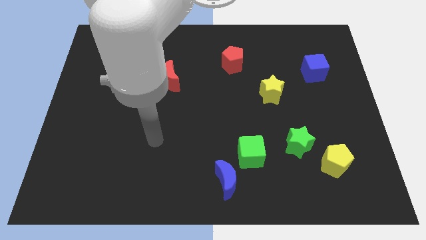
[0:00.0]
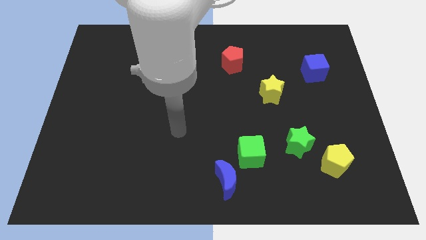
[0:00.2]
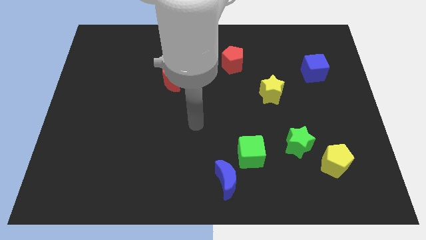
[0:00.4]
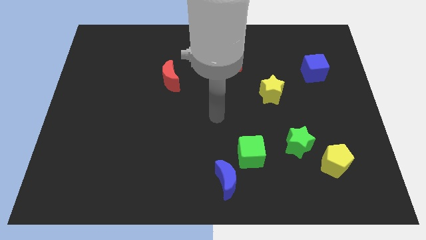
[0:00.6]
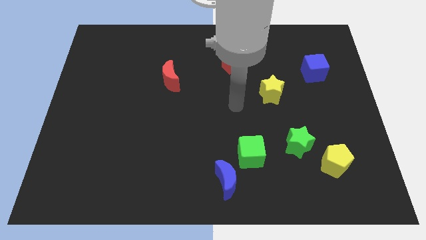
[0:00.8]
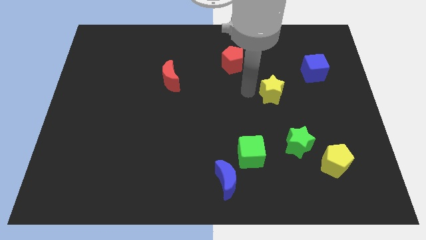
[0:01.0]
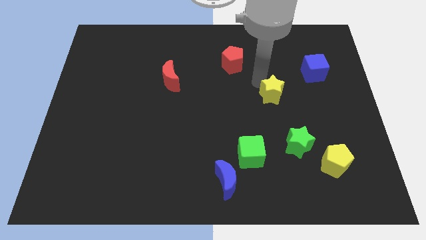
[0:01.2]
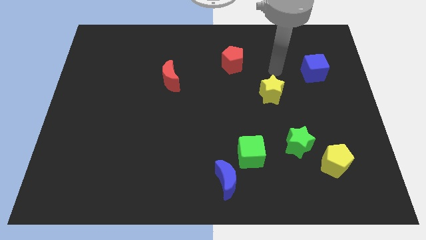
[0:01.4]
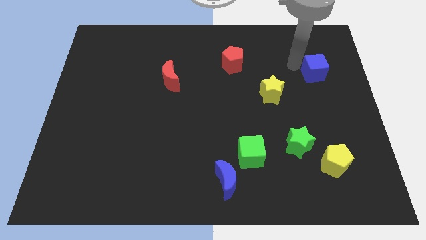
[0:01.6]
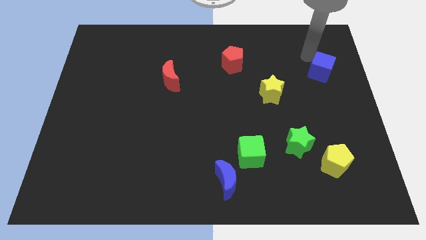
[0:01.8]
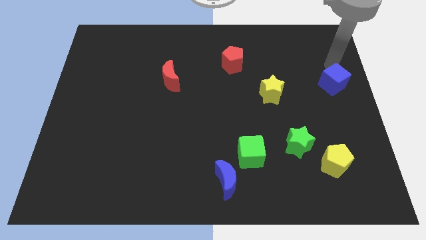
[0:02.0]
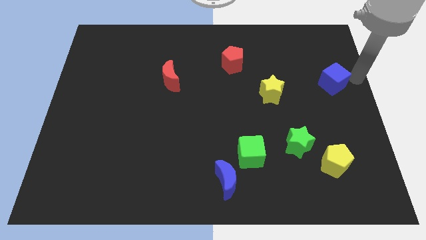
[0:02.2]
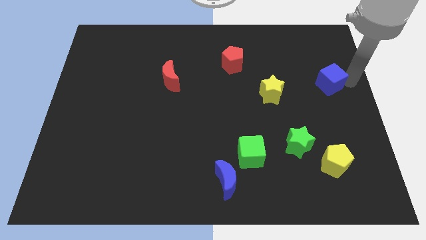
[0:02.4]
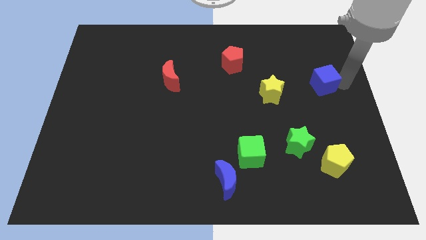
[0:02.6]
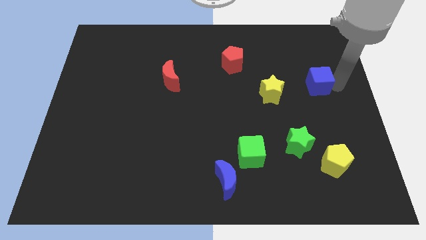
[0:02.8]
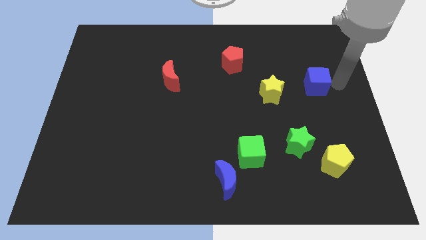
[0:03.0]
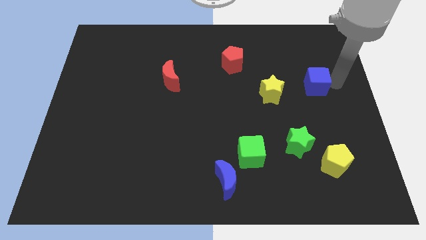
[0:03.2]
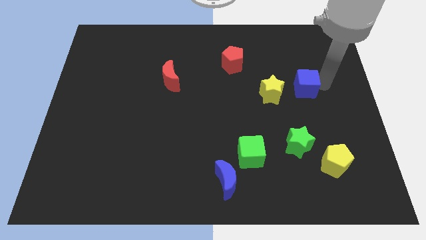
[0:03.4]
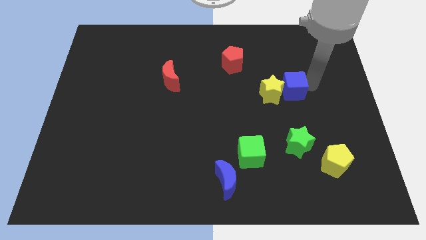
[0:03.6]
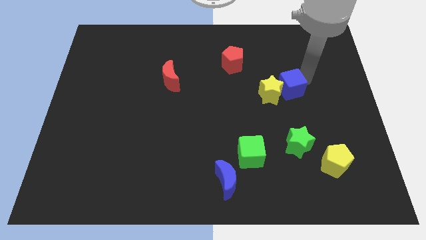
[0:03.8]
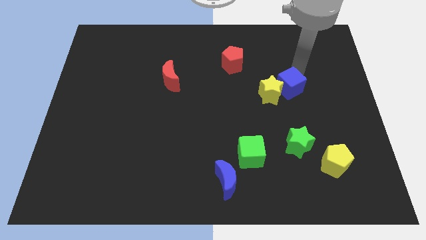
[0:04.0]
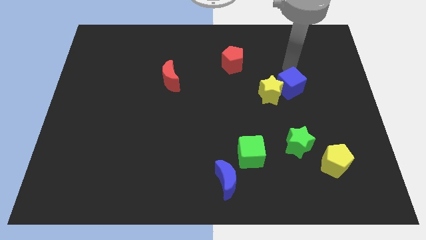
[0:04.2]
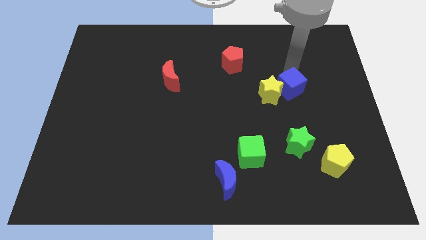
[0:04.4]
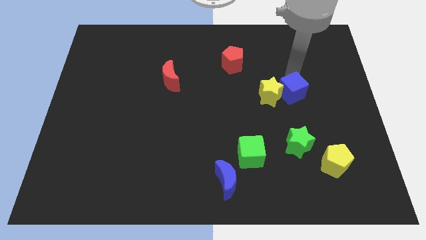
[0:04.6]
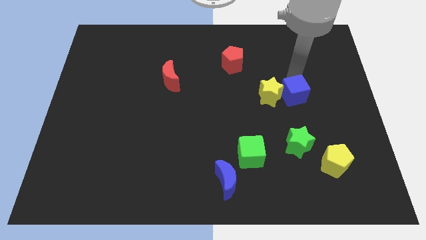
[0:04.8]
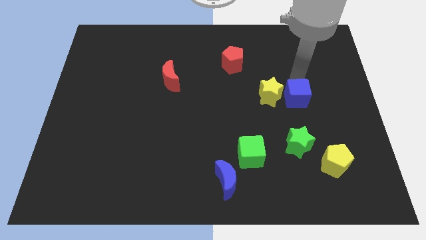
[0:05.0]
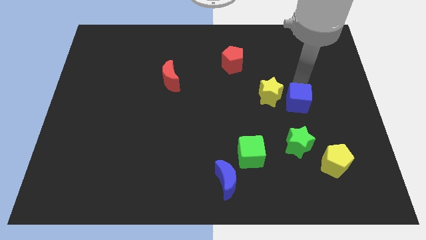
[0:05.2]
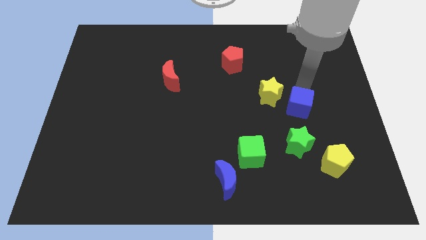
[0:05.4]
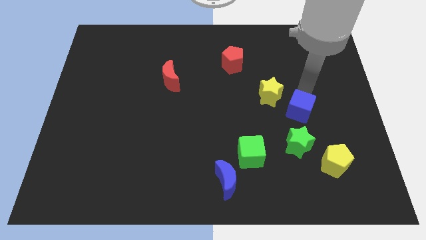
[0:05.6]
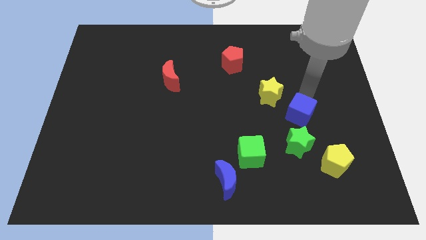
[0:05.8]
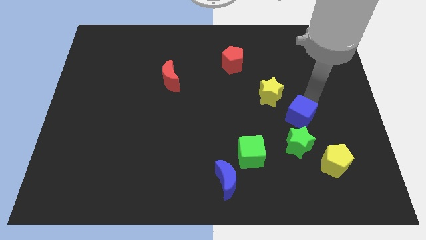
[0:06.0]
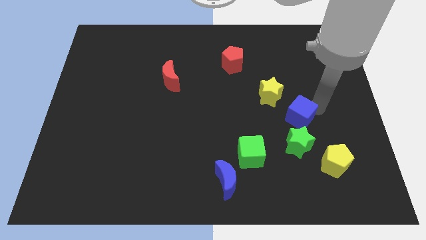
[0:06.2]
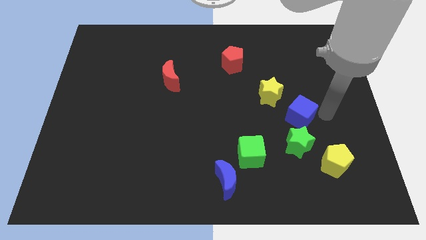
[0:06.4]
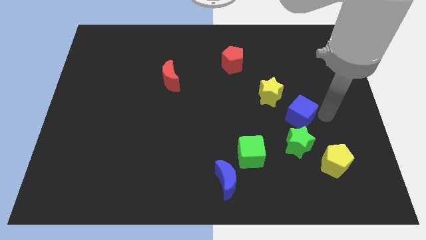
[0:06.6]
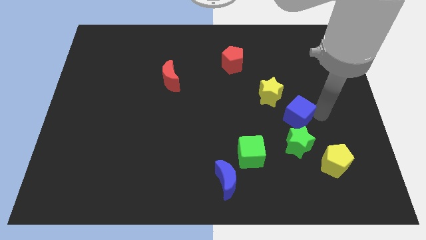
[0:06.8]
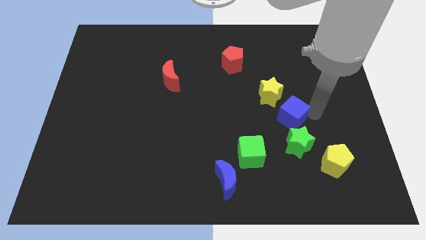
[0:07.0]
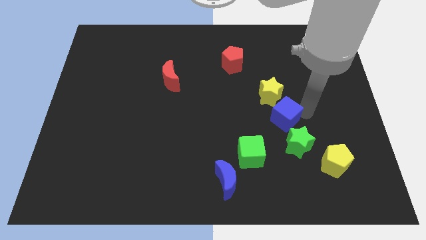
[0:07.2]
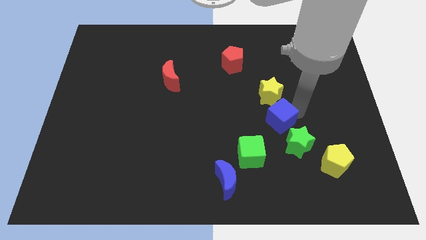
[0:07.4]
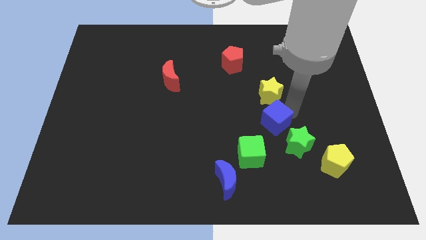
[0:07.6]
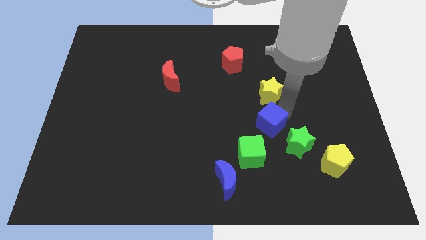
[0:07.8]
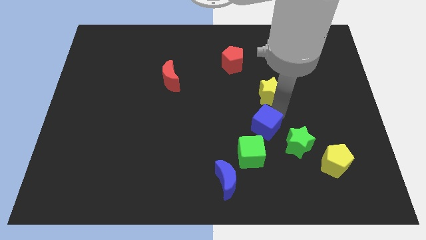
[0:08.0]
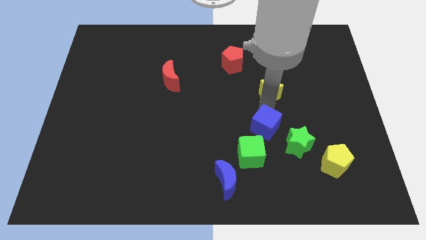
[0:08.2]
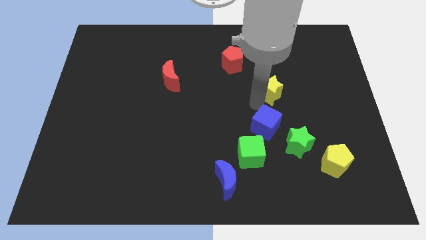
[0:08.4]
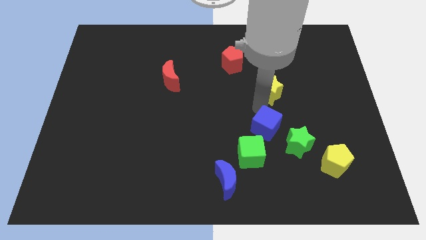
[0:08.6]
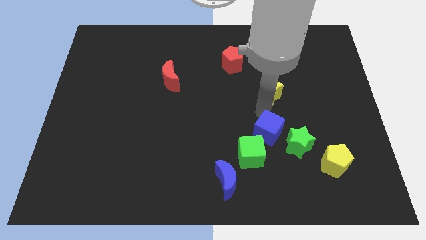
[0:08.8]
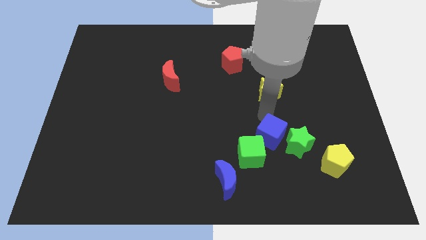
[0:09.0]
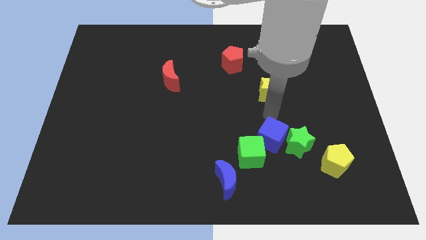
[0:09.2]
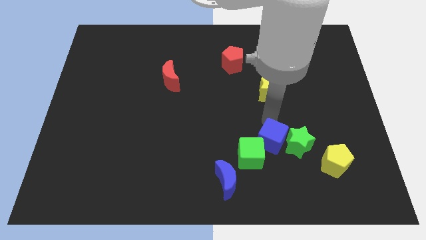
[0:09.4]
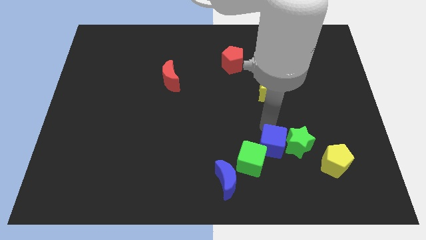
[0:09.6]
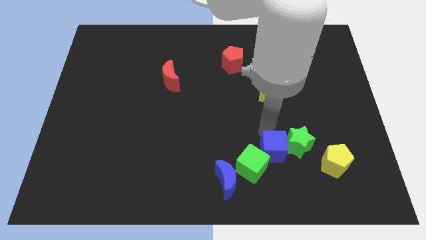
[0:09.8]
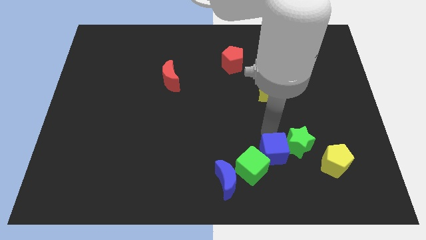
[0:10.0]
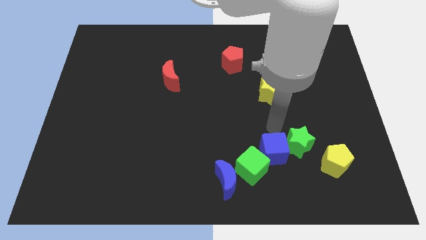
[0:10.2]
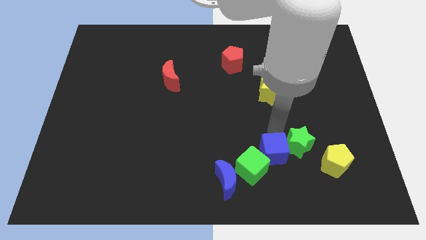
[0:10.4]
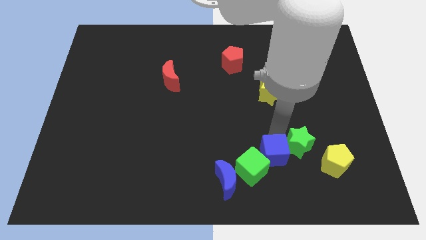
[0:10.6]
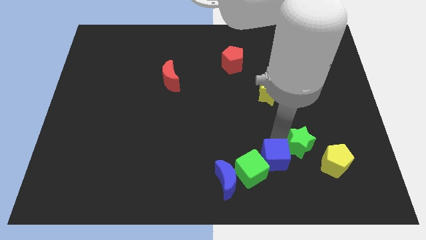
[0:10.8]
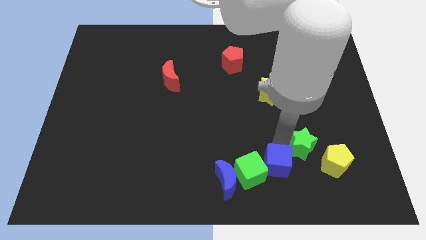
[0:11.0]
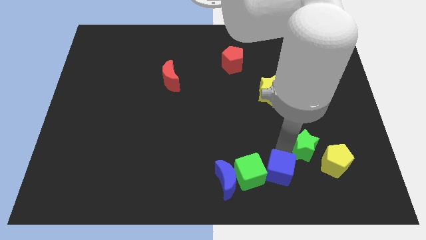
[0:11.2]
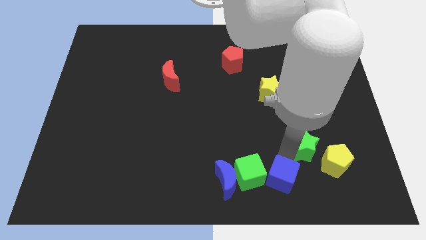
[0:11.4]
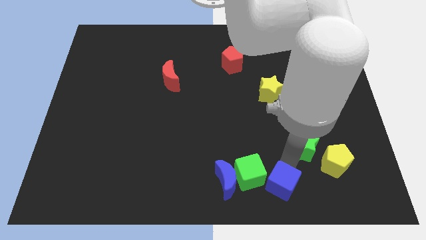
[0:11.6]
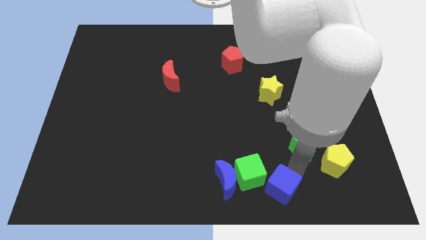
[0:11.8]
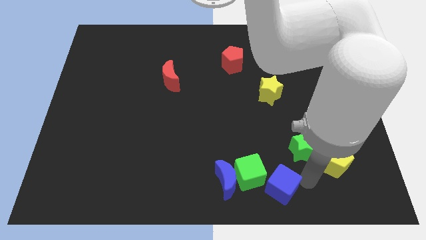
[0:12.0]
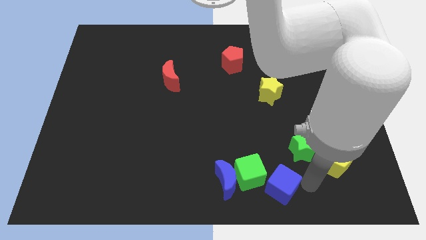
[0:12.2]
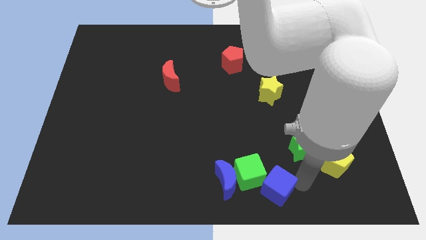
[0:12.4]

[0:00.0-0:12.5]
put the blue cube to the bottom side

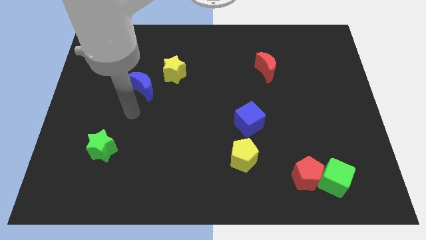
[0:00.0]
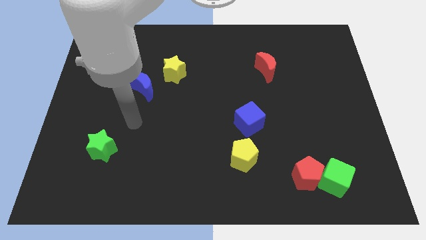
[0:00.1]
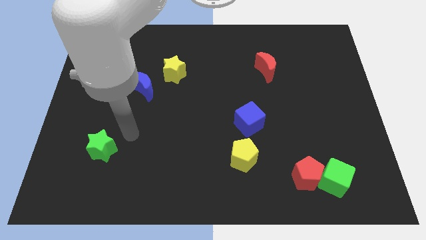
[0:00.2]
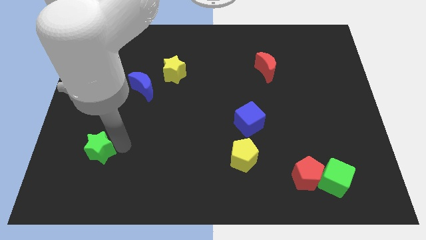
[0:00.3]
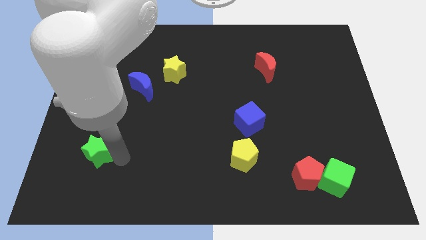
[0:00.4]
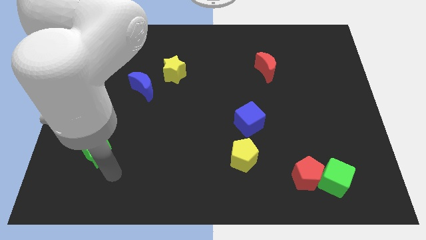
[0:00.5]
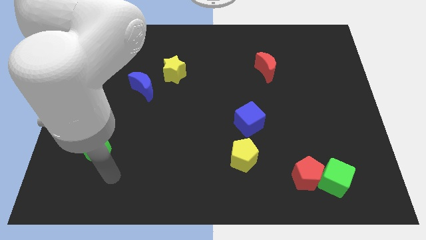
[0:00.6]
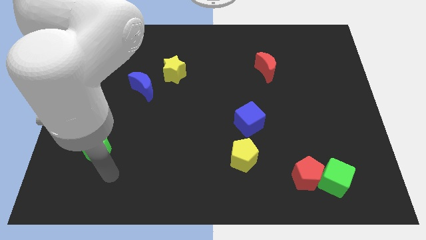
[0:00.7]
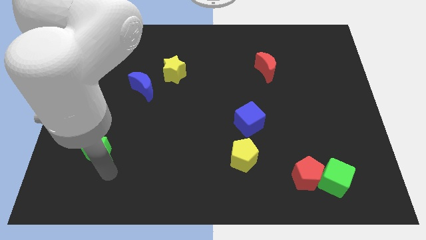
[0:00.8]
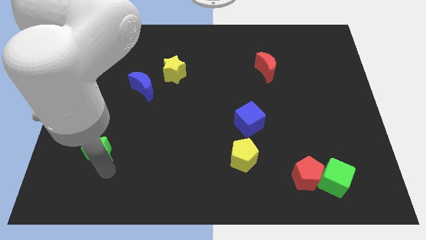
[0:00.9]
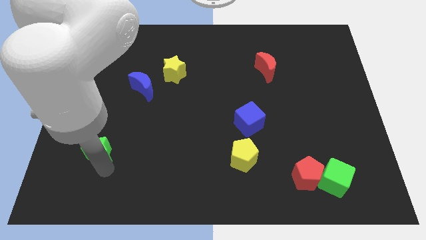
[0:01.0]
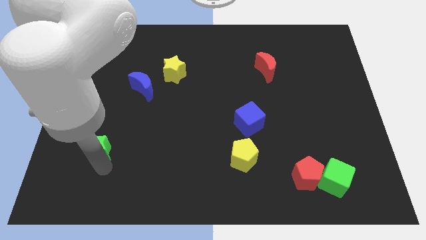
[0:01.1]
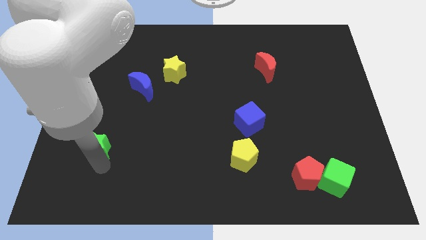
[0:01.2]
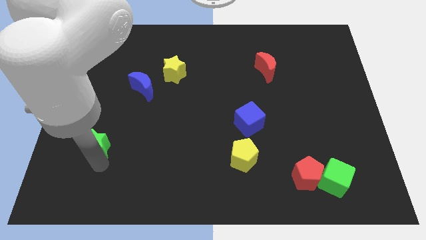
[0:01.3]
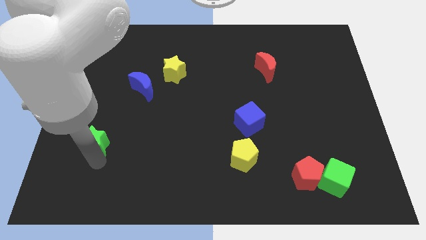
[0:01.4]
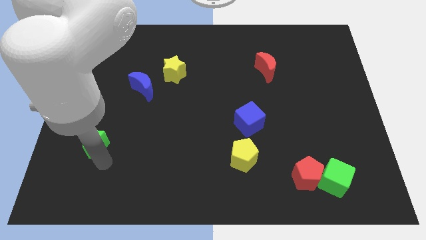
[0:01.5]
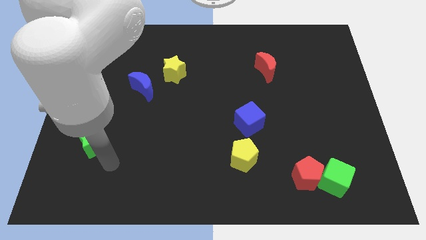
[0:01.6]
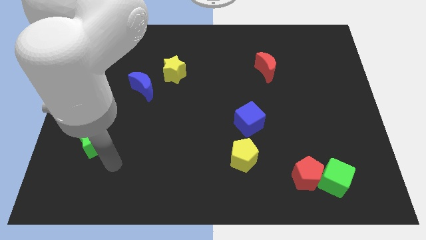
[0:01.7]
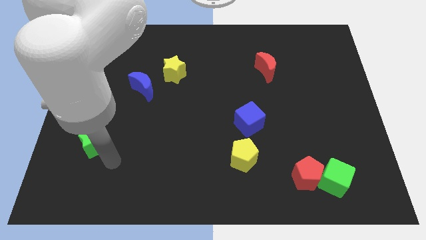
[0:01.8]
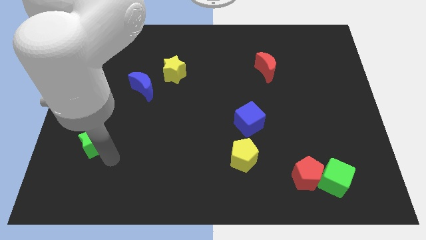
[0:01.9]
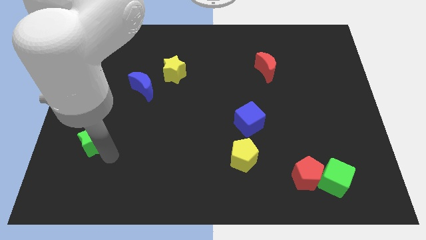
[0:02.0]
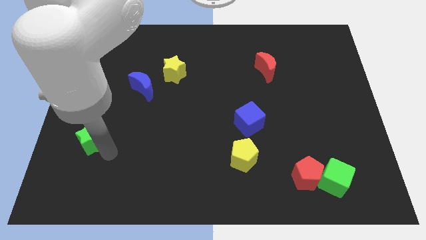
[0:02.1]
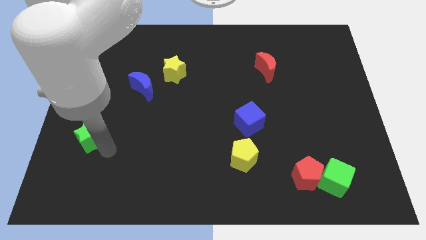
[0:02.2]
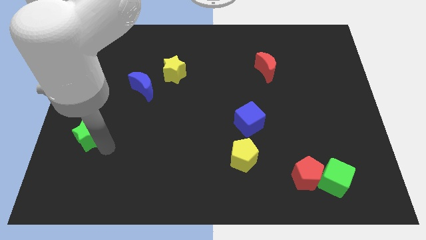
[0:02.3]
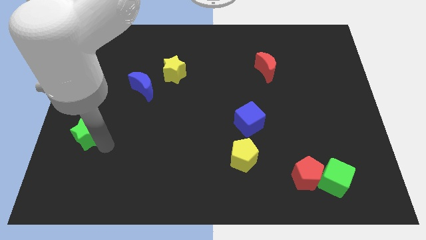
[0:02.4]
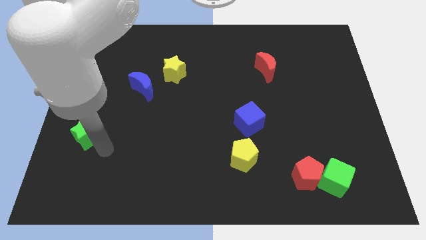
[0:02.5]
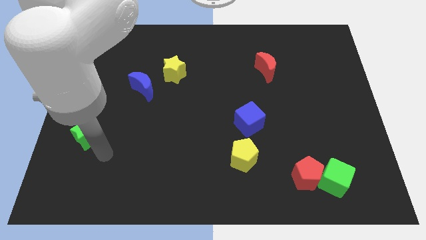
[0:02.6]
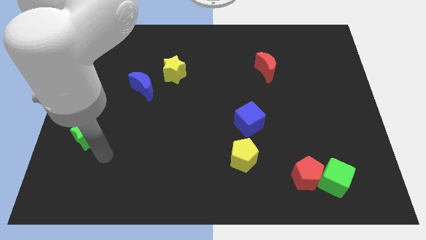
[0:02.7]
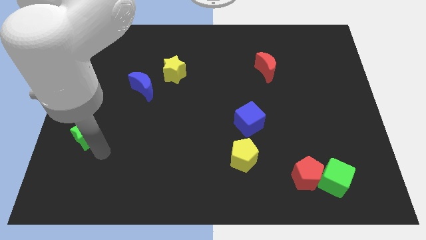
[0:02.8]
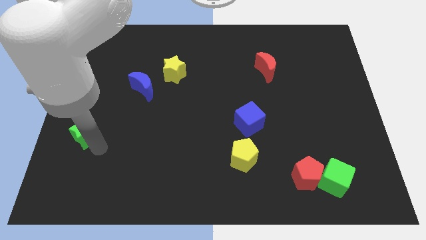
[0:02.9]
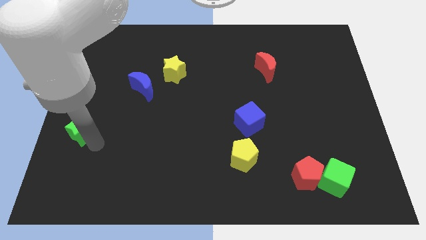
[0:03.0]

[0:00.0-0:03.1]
put the green star to the left side
